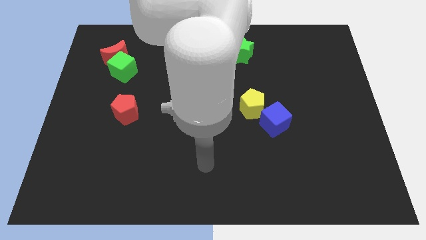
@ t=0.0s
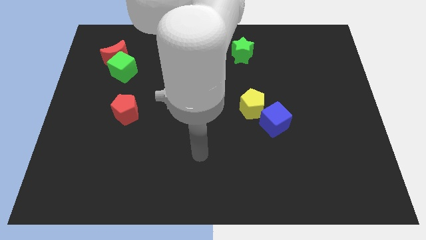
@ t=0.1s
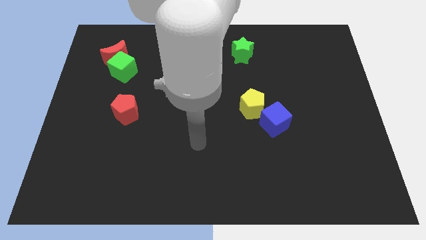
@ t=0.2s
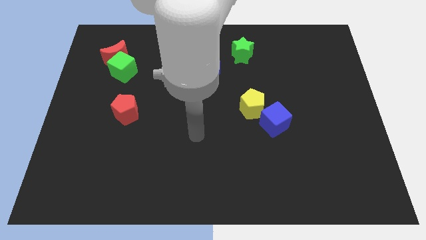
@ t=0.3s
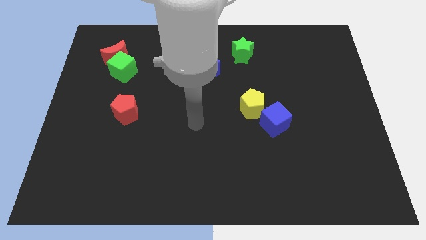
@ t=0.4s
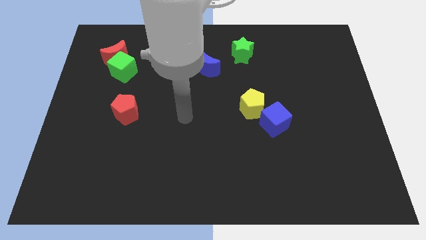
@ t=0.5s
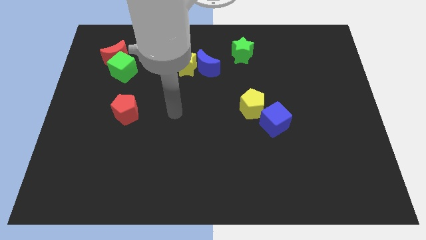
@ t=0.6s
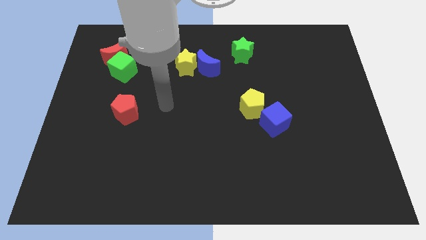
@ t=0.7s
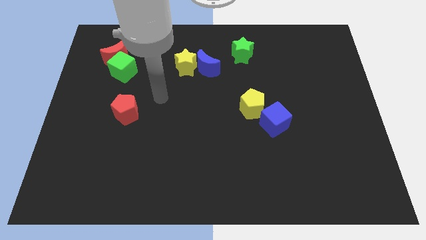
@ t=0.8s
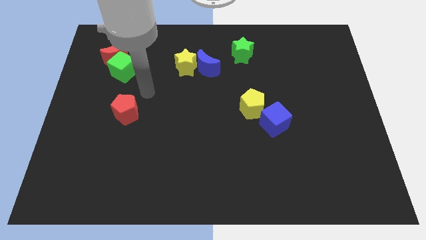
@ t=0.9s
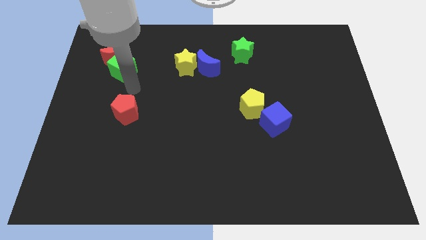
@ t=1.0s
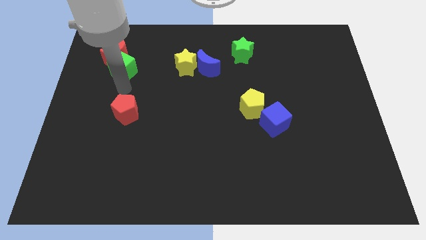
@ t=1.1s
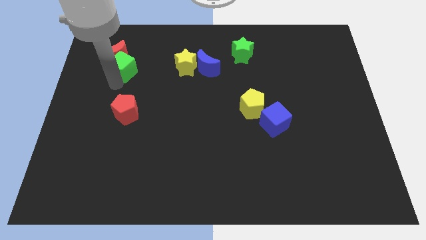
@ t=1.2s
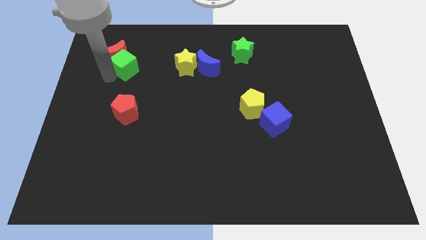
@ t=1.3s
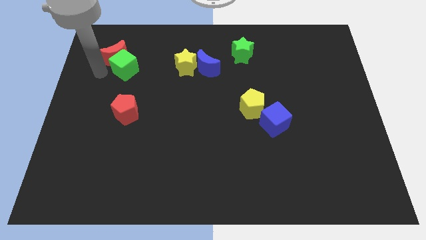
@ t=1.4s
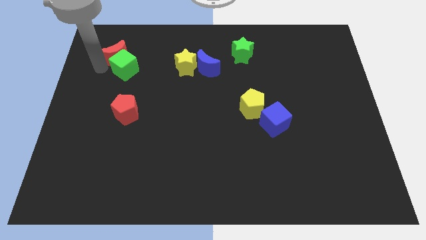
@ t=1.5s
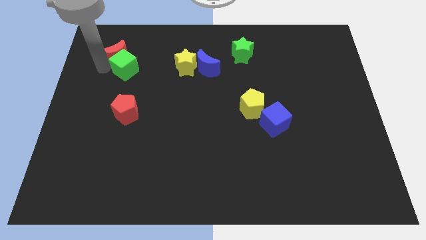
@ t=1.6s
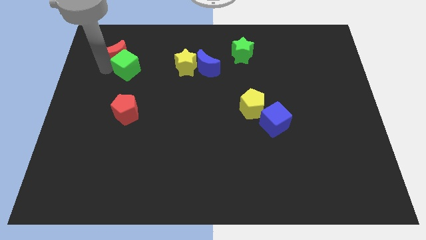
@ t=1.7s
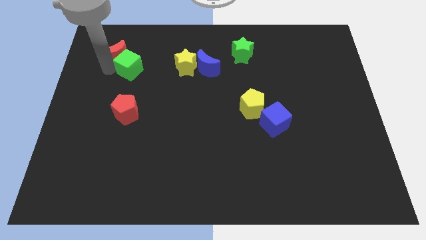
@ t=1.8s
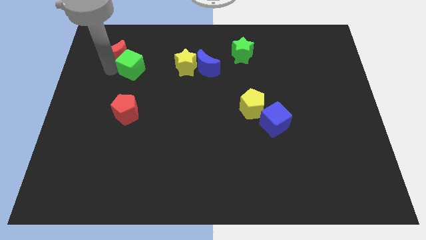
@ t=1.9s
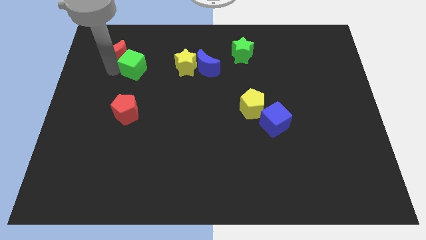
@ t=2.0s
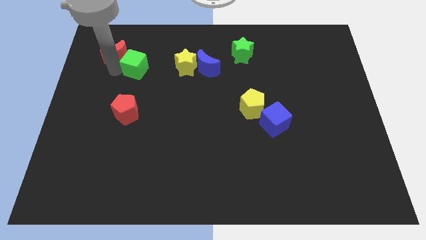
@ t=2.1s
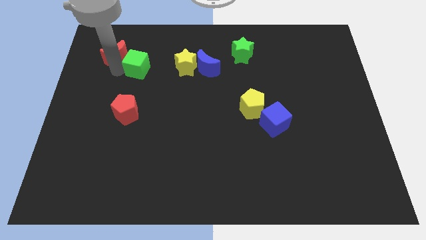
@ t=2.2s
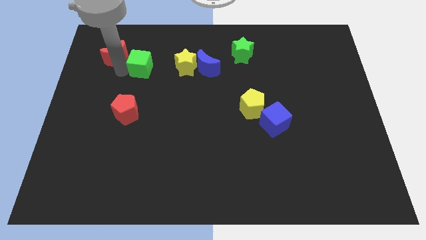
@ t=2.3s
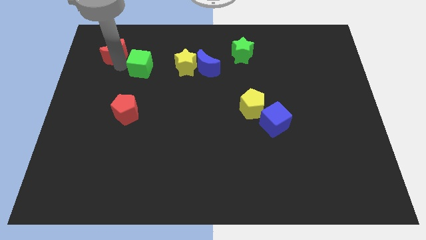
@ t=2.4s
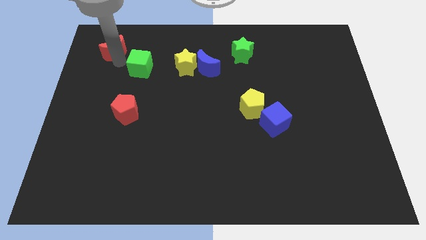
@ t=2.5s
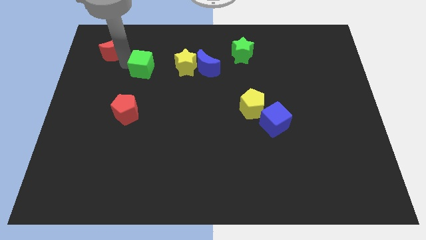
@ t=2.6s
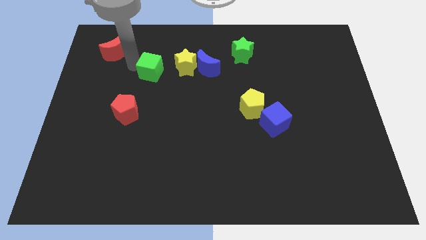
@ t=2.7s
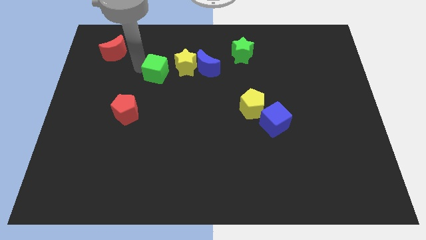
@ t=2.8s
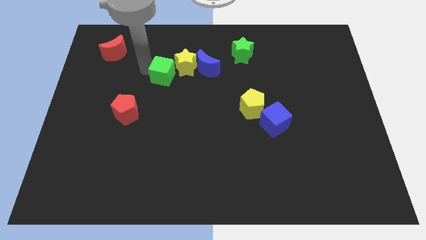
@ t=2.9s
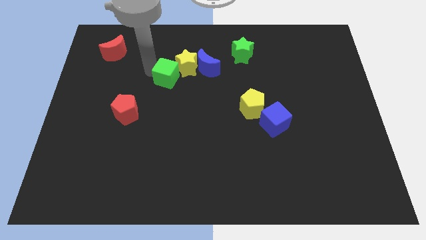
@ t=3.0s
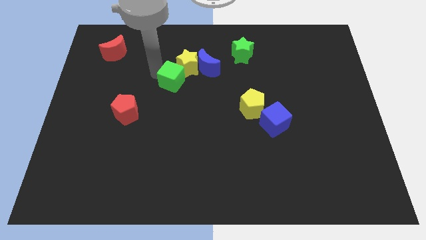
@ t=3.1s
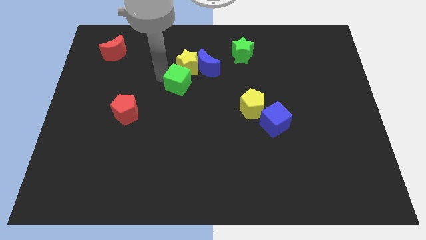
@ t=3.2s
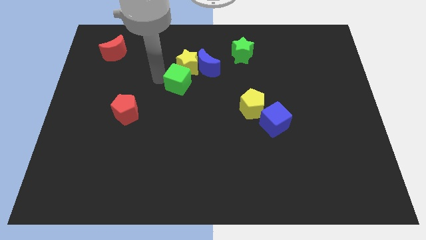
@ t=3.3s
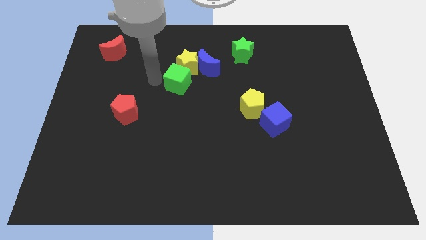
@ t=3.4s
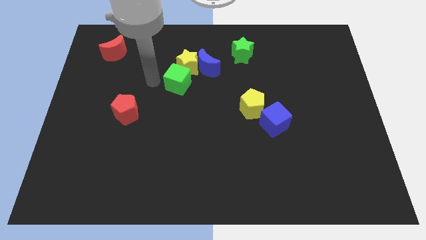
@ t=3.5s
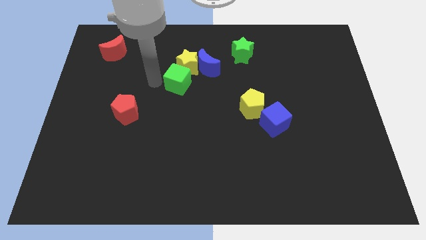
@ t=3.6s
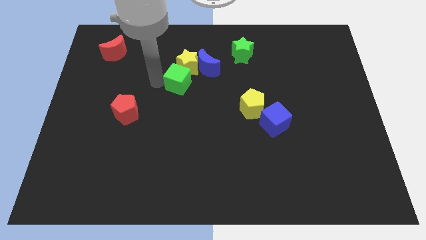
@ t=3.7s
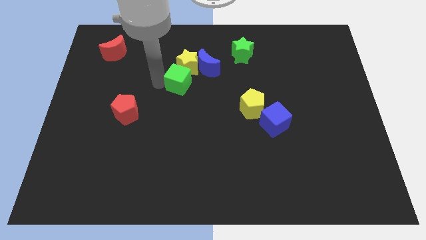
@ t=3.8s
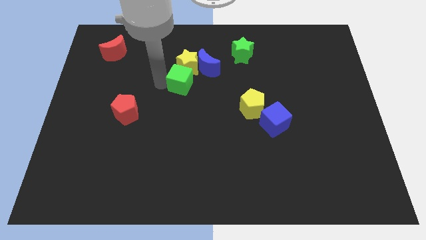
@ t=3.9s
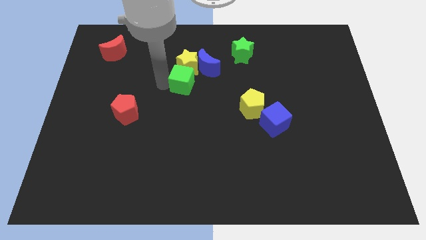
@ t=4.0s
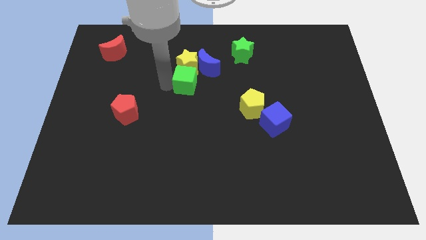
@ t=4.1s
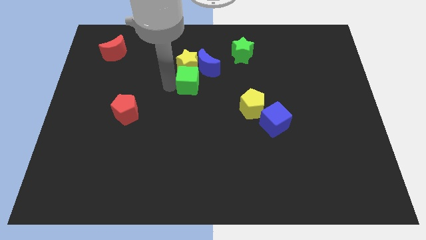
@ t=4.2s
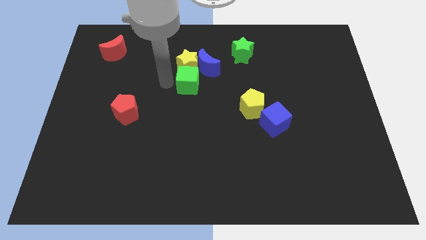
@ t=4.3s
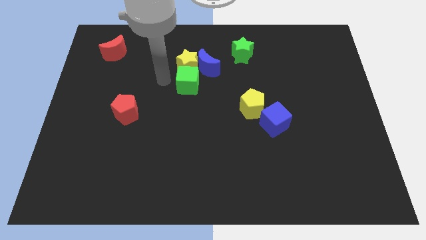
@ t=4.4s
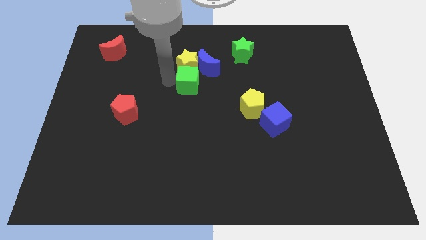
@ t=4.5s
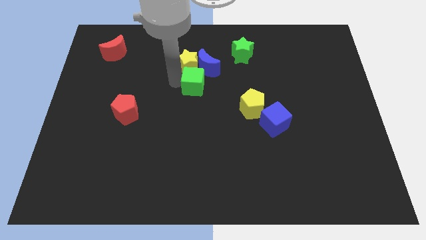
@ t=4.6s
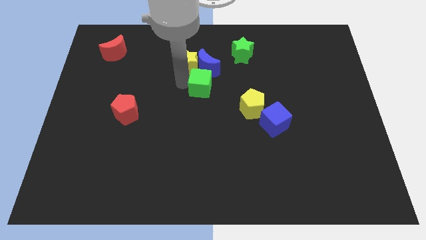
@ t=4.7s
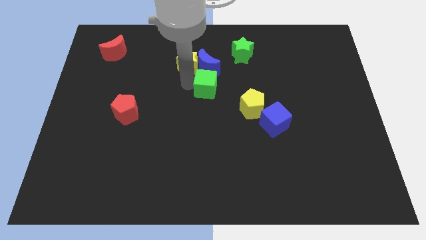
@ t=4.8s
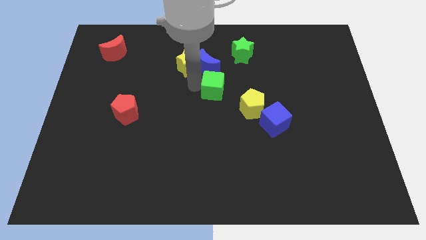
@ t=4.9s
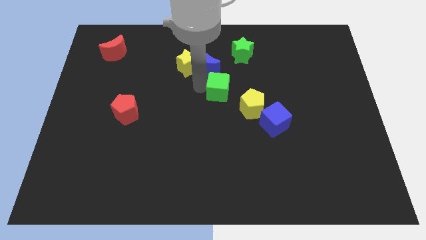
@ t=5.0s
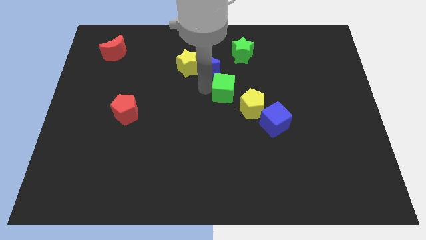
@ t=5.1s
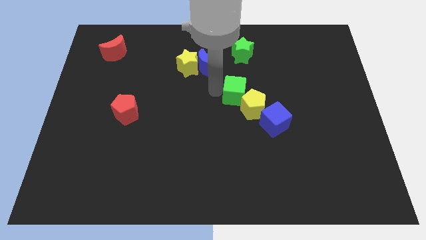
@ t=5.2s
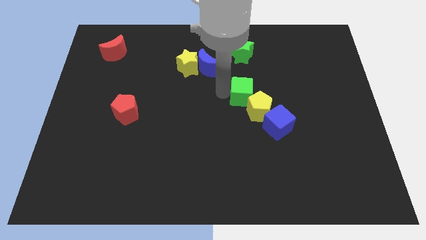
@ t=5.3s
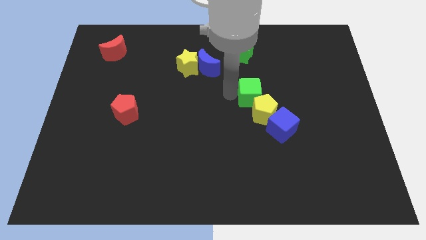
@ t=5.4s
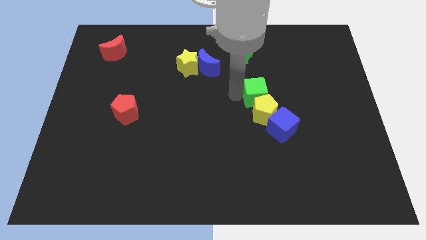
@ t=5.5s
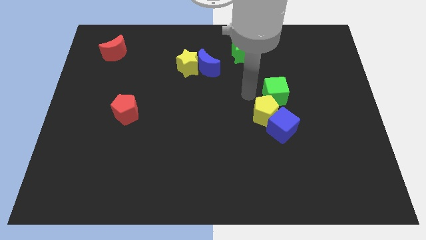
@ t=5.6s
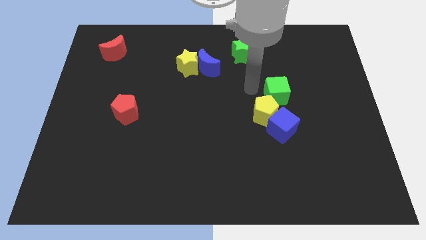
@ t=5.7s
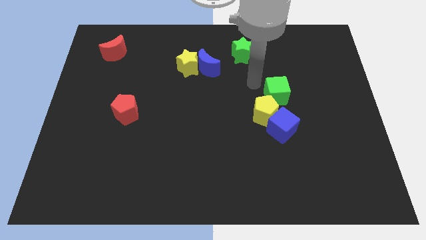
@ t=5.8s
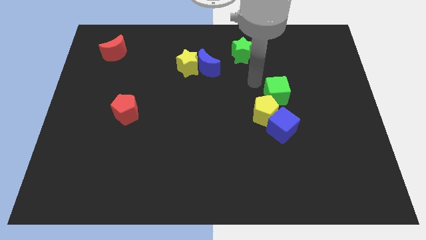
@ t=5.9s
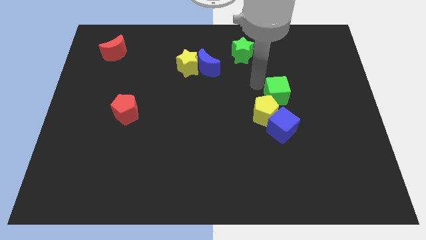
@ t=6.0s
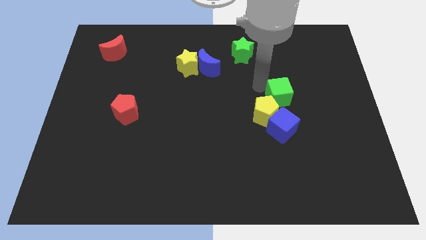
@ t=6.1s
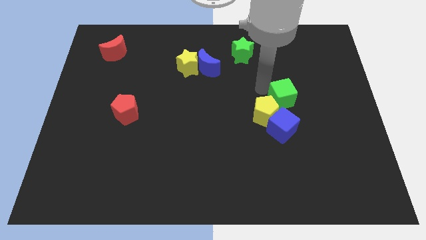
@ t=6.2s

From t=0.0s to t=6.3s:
slide the green cube just right of the yellow pentagon

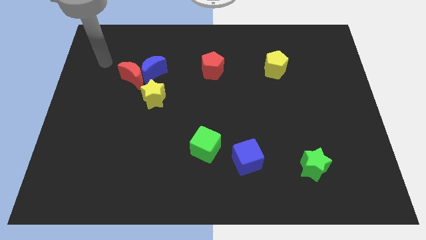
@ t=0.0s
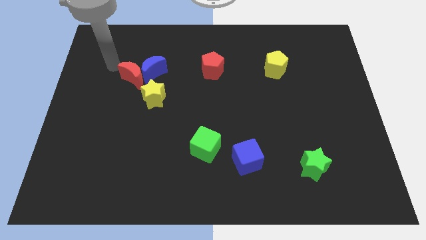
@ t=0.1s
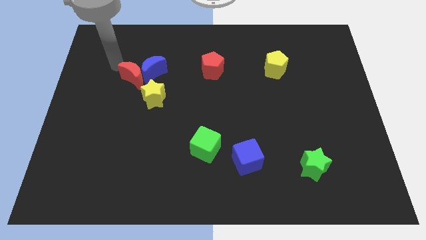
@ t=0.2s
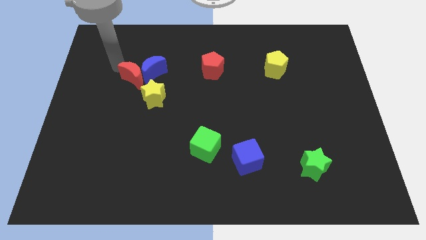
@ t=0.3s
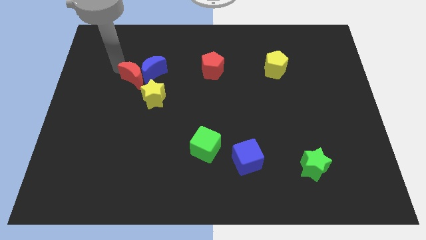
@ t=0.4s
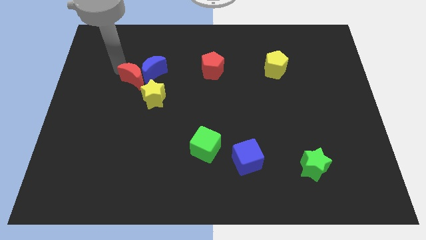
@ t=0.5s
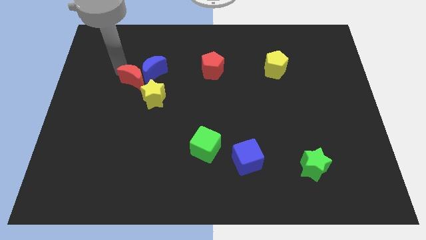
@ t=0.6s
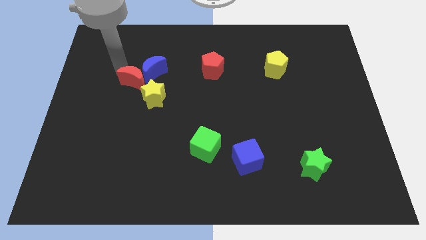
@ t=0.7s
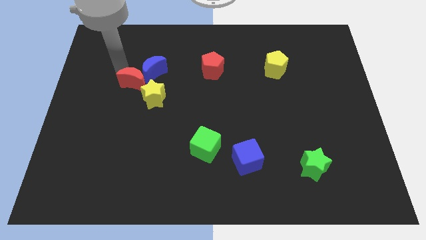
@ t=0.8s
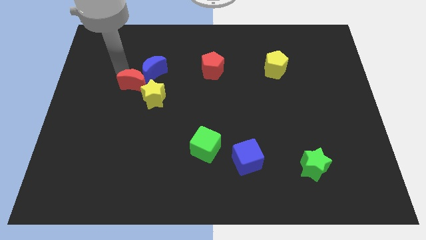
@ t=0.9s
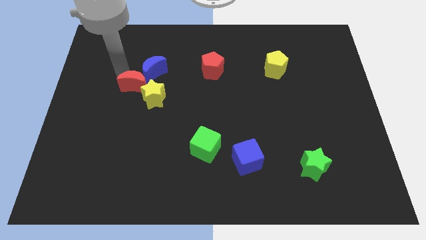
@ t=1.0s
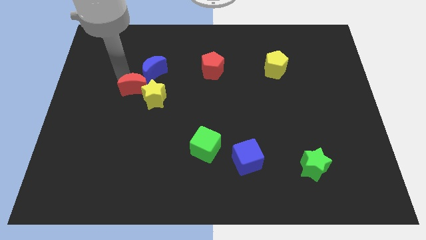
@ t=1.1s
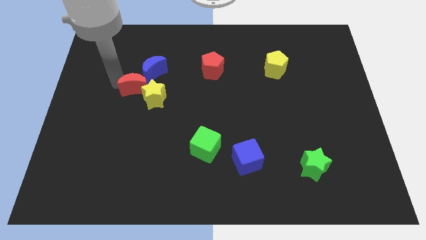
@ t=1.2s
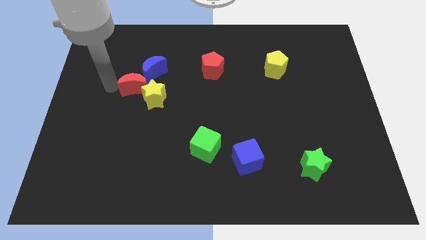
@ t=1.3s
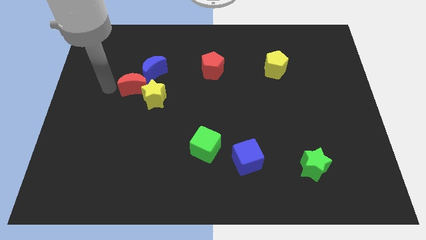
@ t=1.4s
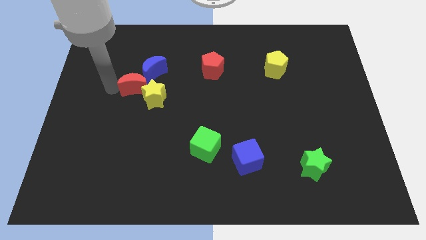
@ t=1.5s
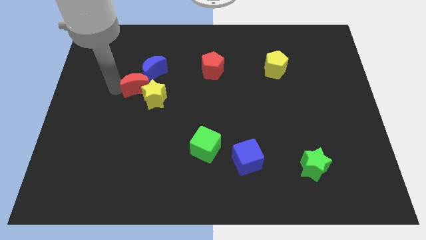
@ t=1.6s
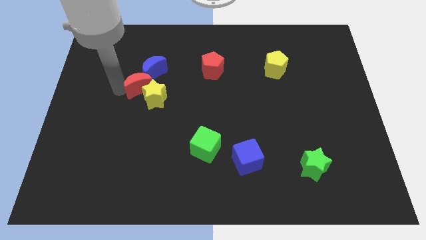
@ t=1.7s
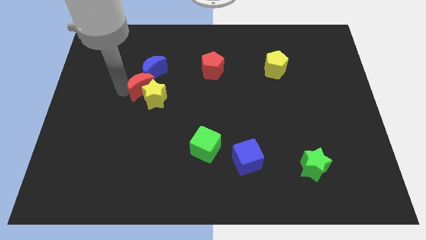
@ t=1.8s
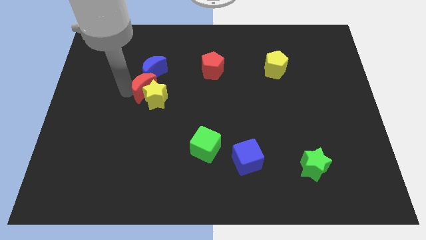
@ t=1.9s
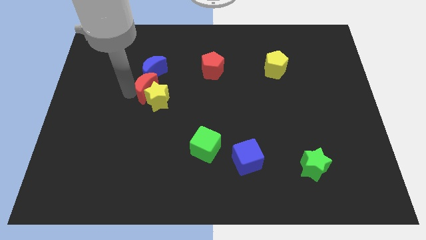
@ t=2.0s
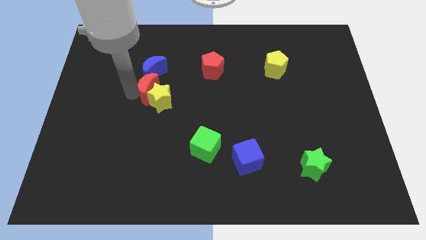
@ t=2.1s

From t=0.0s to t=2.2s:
put the red moon diagonally down and to the right of the blue moon
